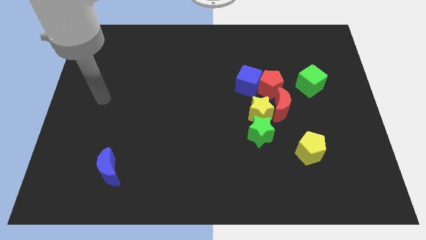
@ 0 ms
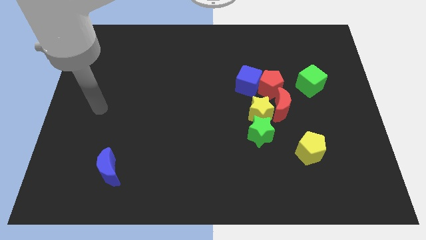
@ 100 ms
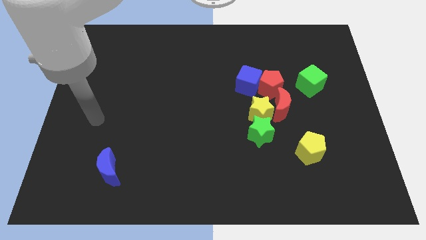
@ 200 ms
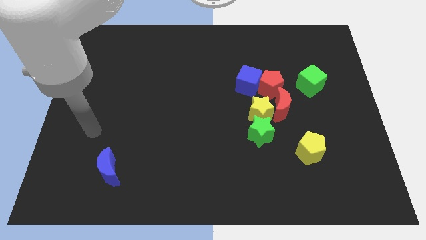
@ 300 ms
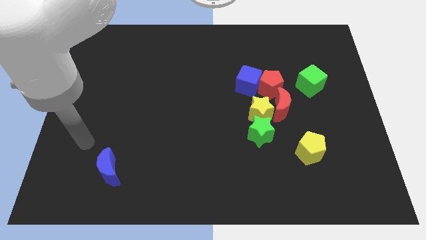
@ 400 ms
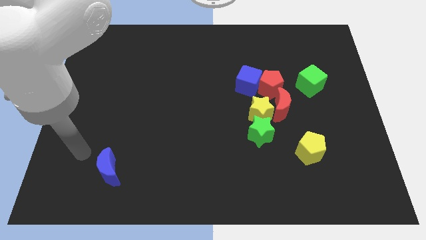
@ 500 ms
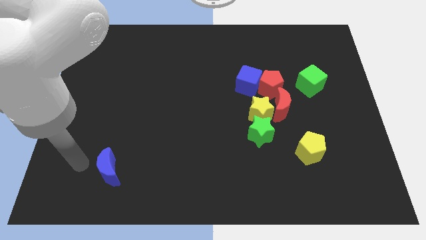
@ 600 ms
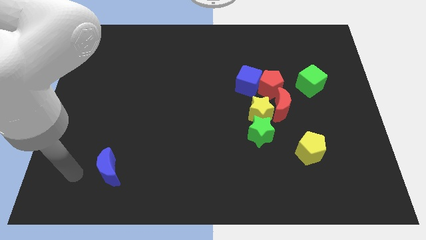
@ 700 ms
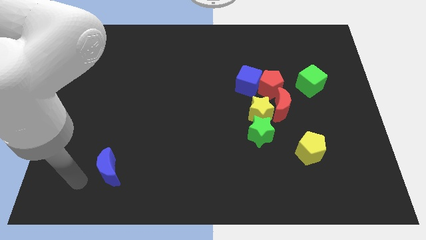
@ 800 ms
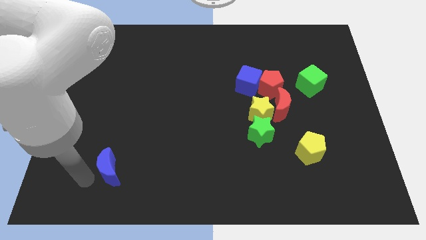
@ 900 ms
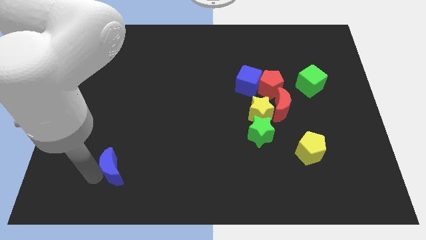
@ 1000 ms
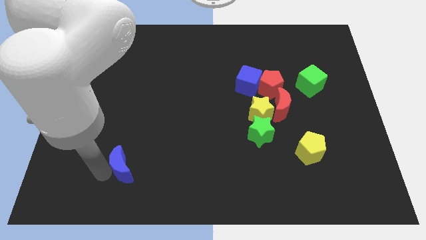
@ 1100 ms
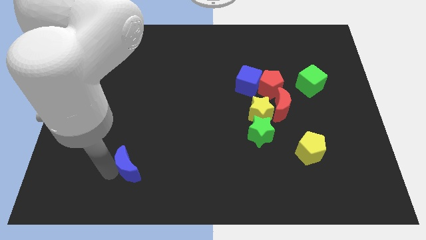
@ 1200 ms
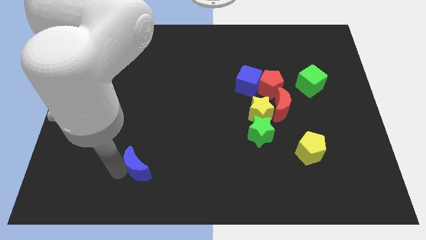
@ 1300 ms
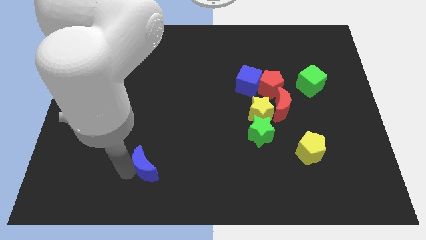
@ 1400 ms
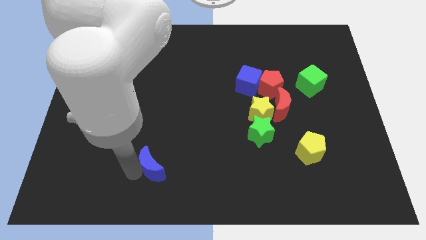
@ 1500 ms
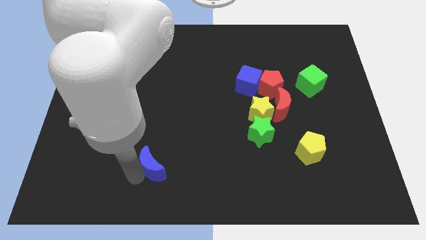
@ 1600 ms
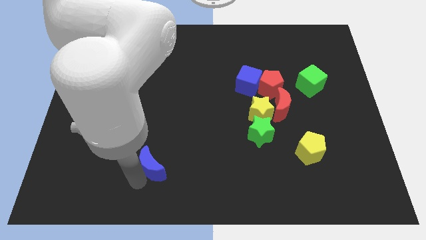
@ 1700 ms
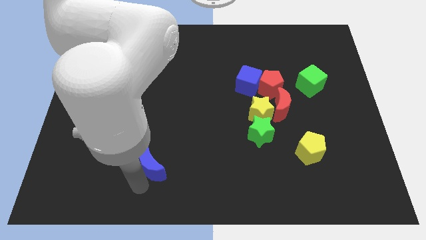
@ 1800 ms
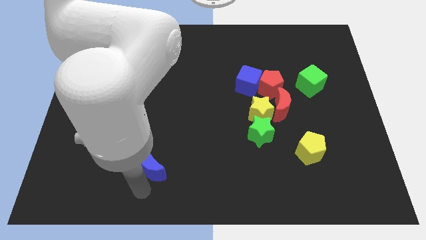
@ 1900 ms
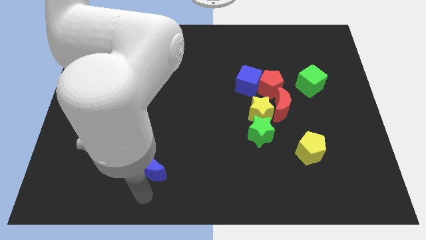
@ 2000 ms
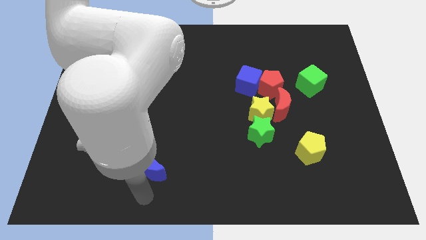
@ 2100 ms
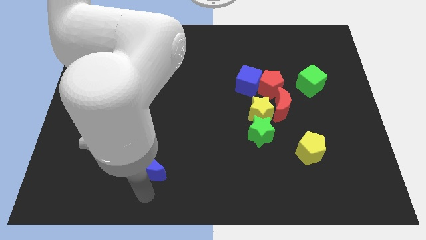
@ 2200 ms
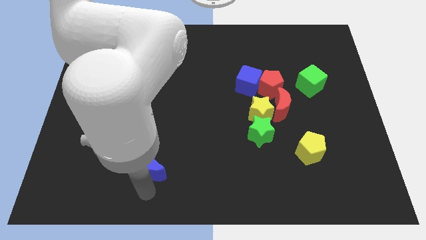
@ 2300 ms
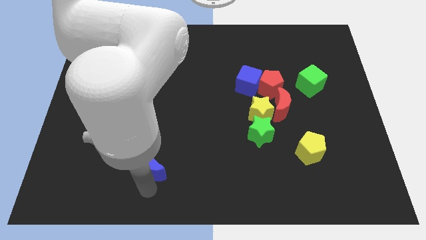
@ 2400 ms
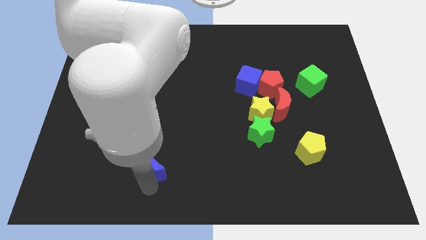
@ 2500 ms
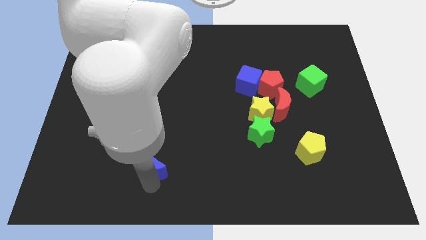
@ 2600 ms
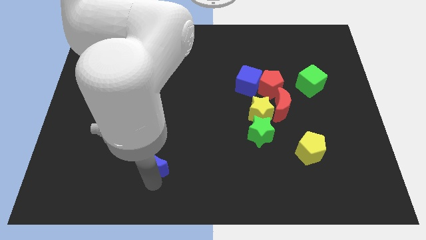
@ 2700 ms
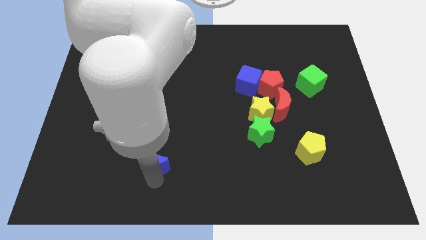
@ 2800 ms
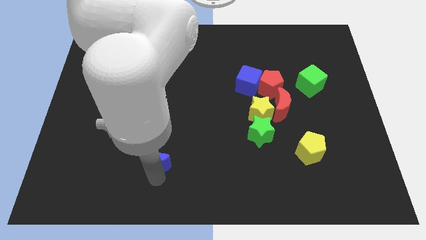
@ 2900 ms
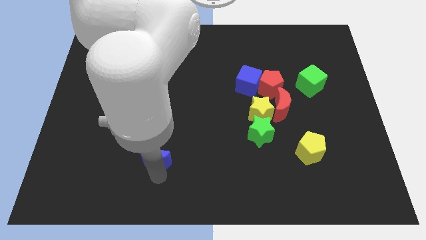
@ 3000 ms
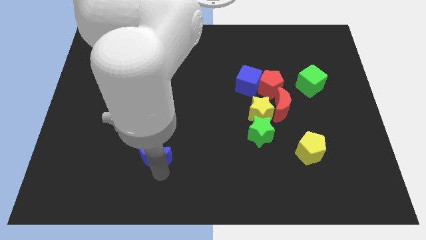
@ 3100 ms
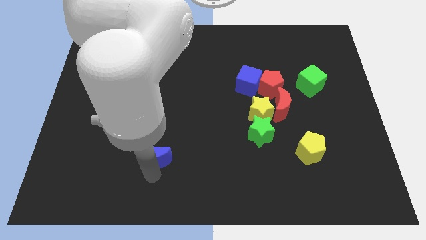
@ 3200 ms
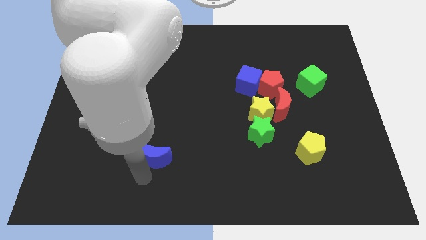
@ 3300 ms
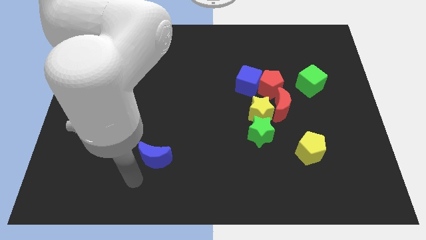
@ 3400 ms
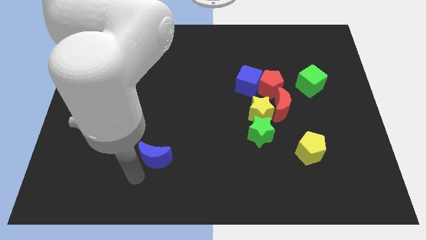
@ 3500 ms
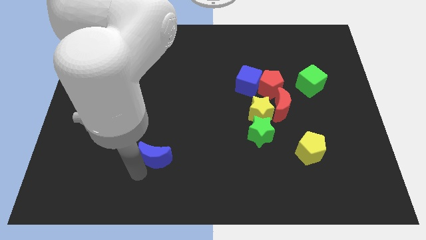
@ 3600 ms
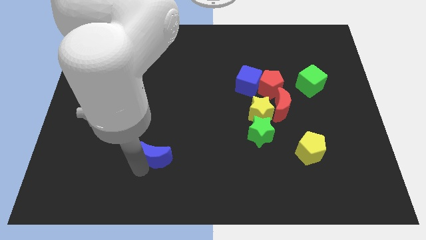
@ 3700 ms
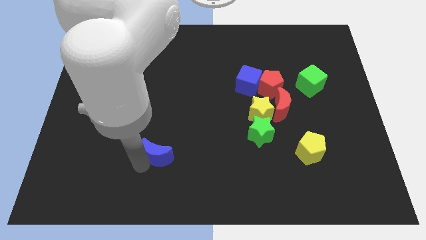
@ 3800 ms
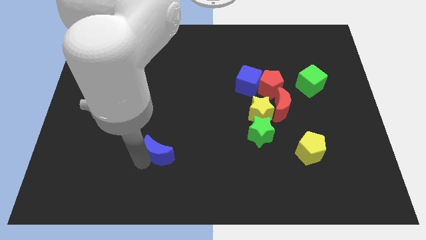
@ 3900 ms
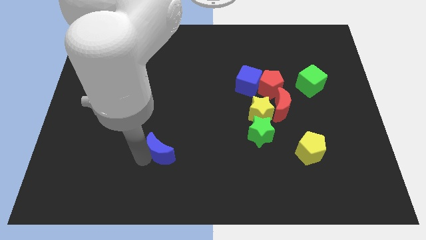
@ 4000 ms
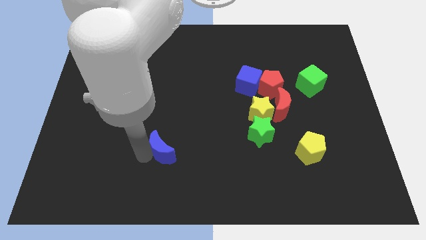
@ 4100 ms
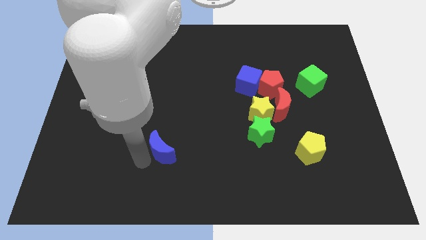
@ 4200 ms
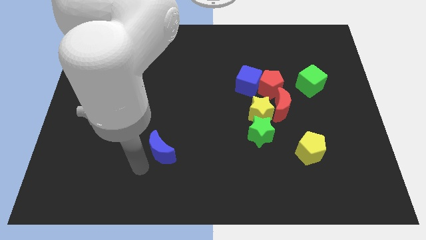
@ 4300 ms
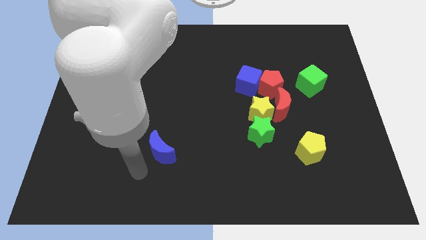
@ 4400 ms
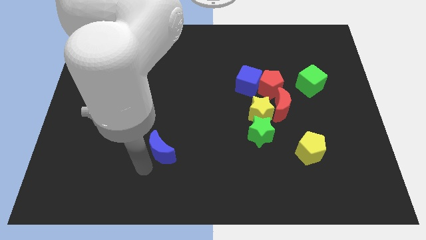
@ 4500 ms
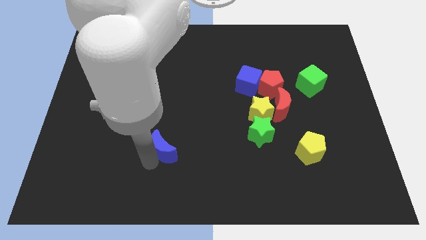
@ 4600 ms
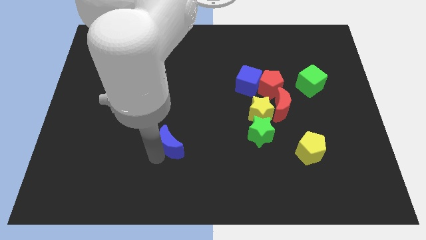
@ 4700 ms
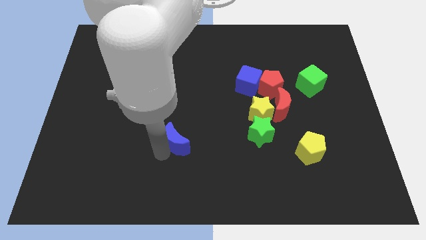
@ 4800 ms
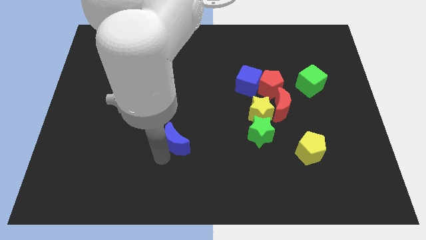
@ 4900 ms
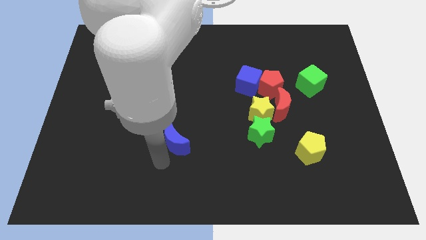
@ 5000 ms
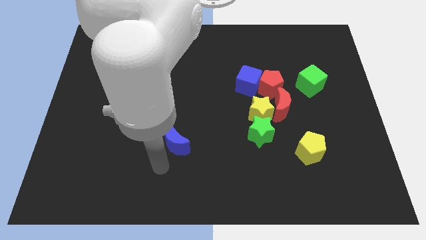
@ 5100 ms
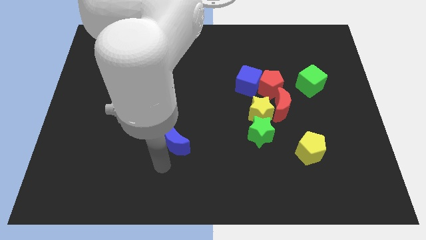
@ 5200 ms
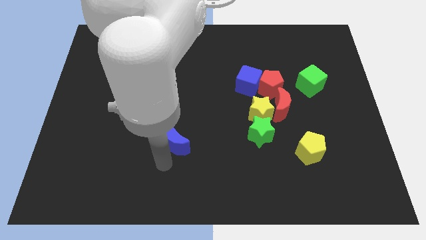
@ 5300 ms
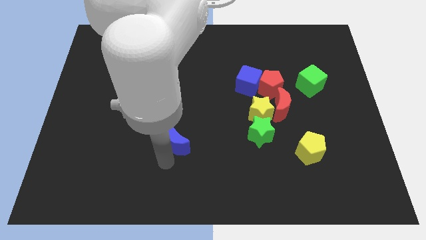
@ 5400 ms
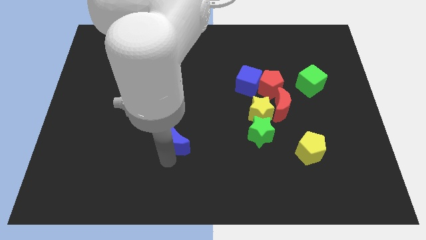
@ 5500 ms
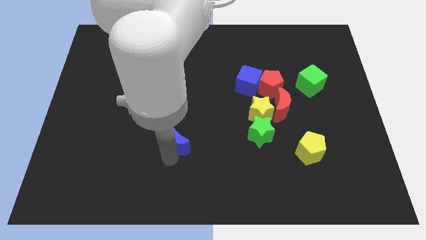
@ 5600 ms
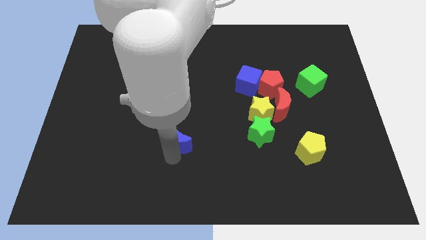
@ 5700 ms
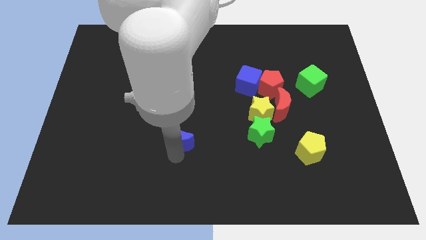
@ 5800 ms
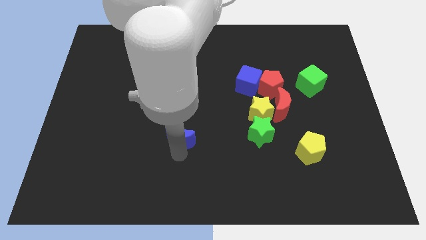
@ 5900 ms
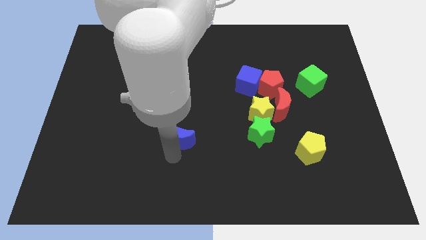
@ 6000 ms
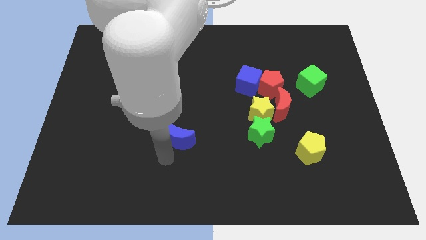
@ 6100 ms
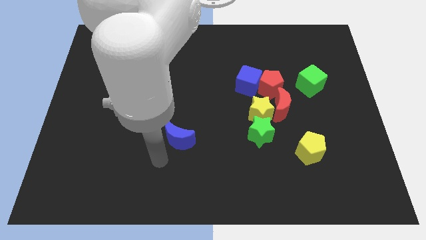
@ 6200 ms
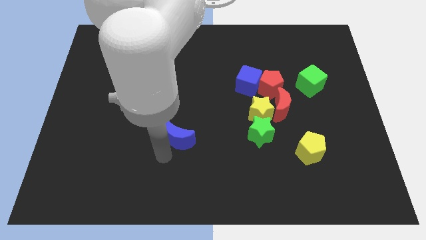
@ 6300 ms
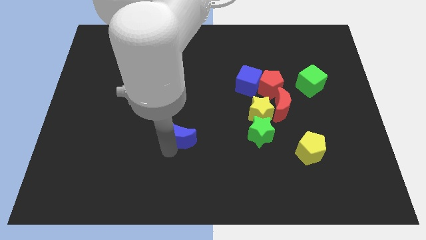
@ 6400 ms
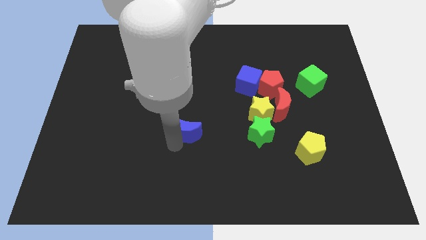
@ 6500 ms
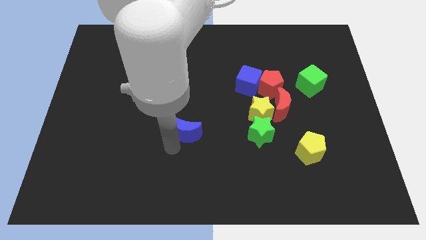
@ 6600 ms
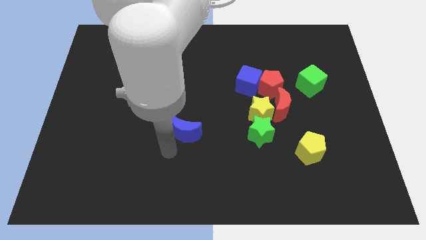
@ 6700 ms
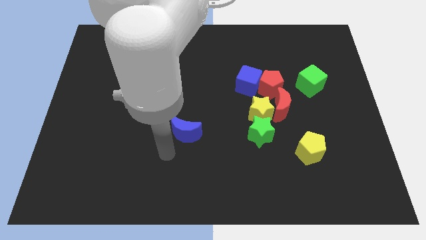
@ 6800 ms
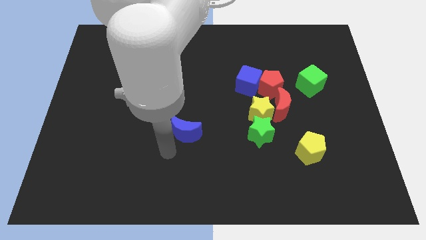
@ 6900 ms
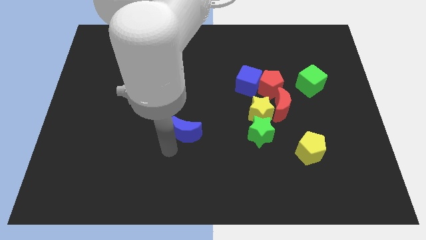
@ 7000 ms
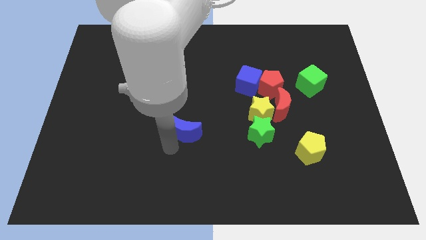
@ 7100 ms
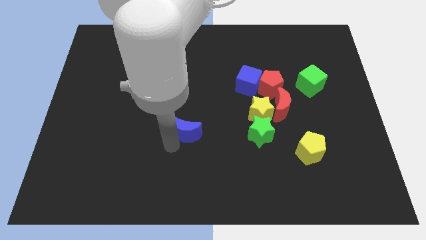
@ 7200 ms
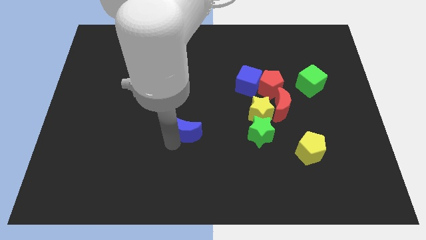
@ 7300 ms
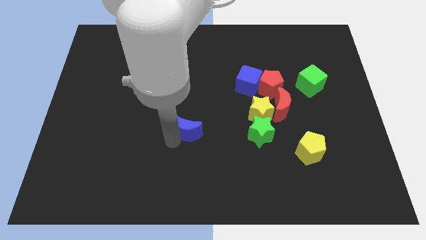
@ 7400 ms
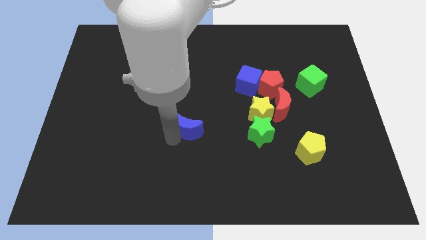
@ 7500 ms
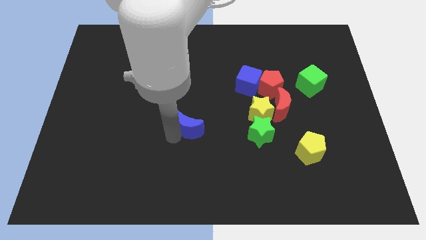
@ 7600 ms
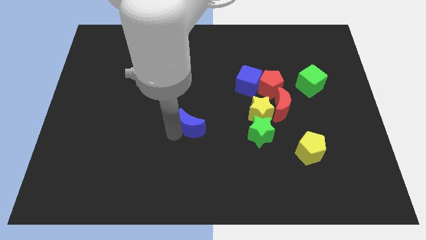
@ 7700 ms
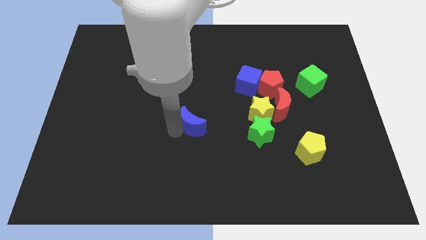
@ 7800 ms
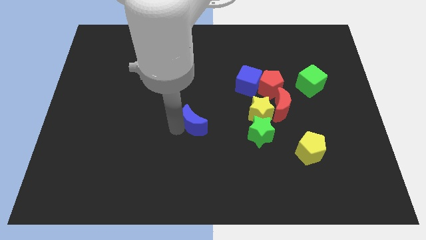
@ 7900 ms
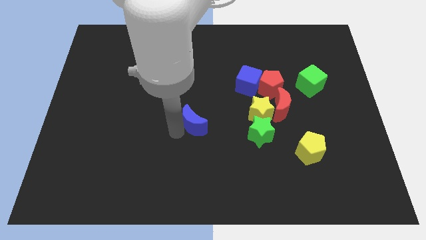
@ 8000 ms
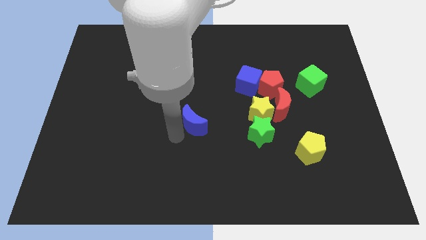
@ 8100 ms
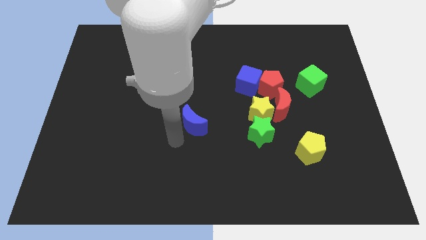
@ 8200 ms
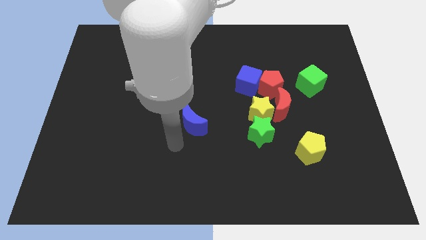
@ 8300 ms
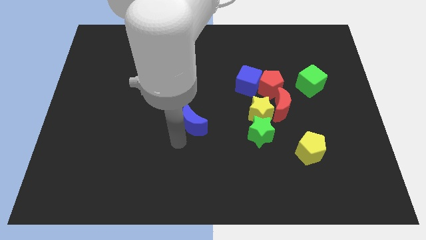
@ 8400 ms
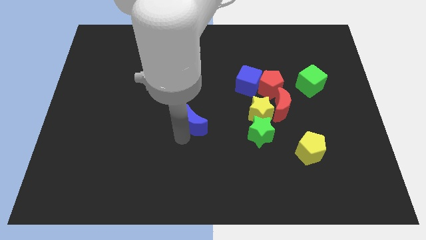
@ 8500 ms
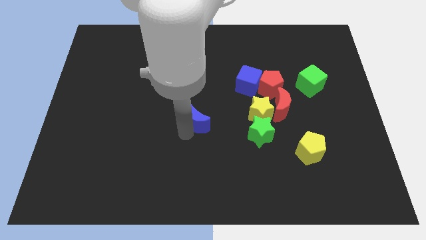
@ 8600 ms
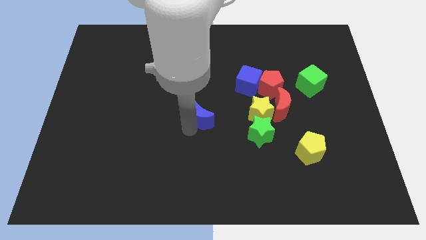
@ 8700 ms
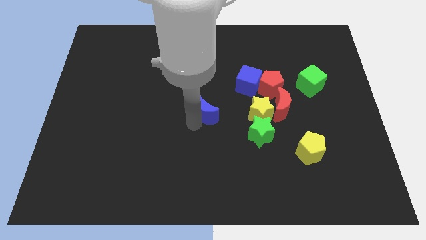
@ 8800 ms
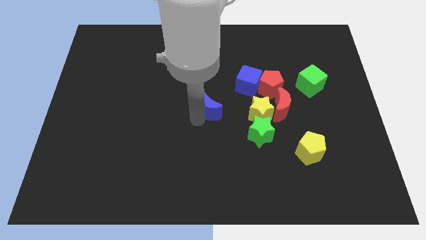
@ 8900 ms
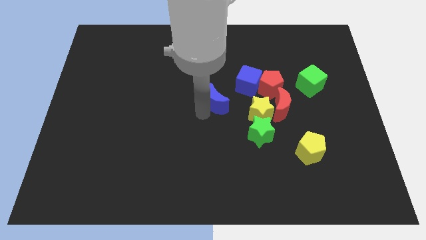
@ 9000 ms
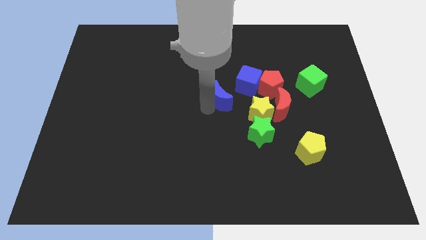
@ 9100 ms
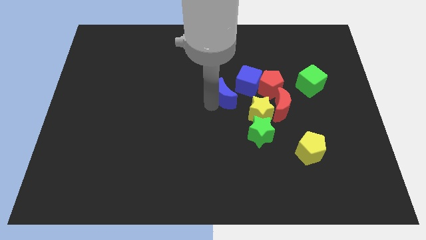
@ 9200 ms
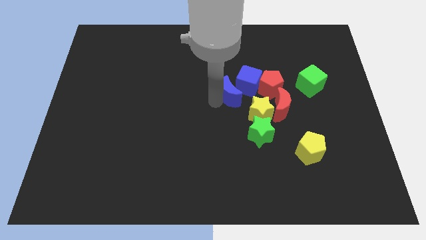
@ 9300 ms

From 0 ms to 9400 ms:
move the blue moon close to the blue cube
